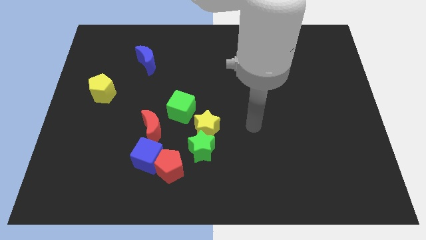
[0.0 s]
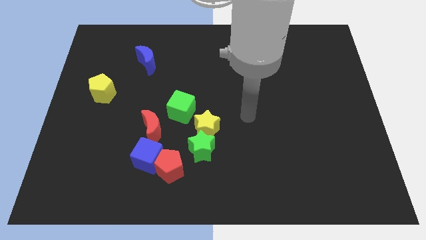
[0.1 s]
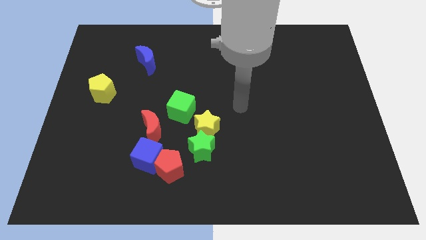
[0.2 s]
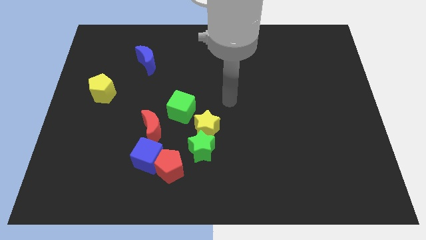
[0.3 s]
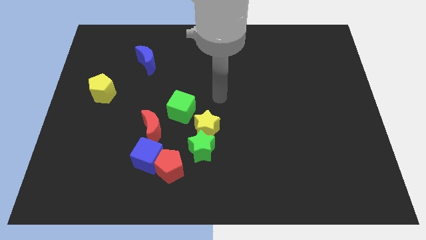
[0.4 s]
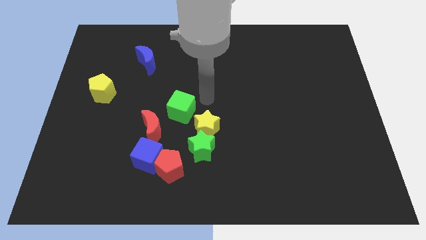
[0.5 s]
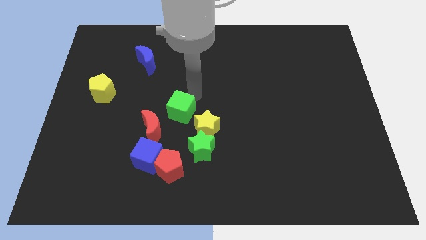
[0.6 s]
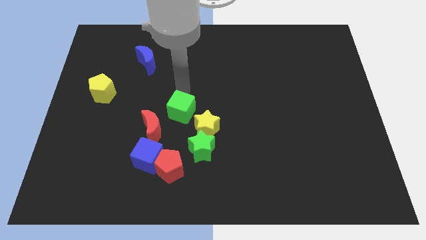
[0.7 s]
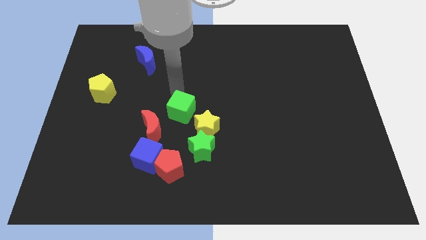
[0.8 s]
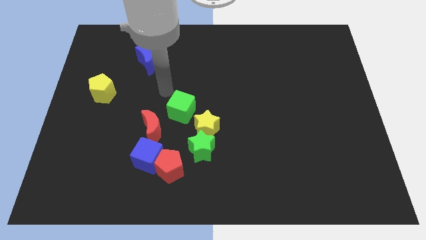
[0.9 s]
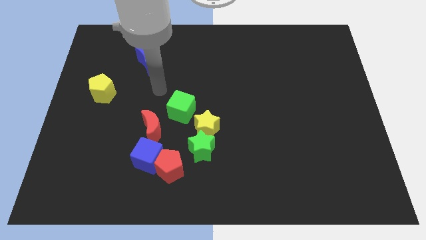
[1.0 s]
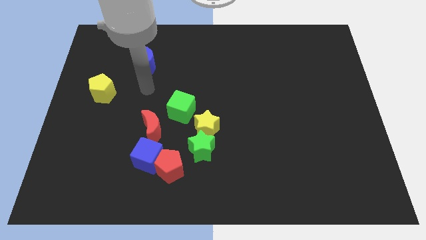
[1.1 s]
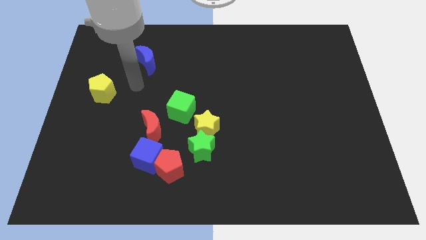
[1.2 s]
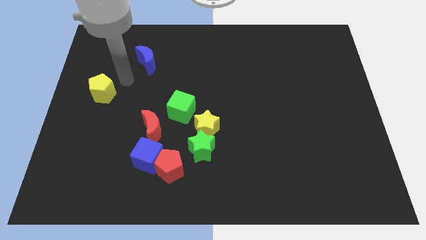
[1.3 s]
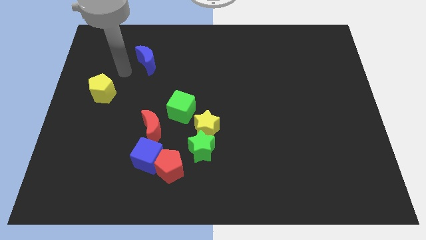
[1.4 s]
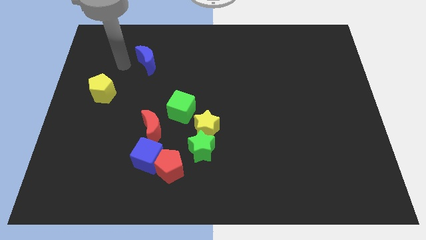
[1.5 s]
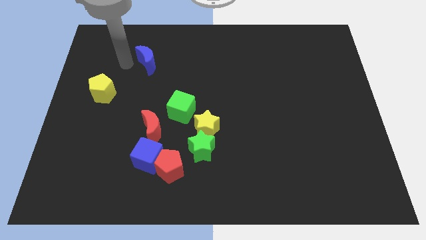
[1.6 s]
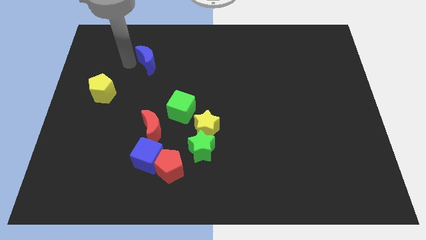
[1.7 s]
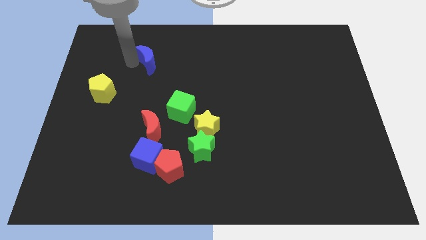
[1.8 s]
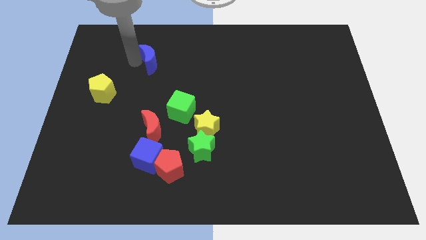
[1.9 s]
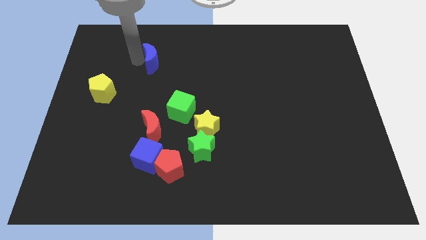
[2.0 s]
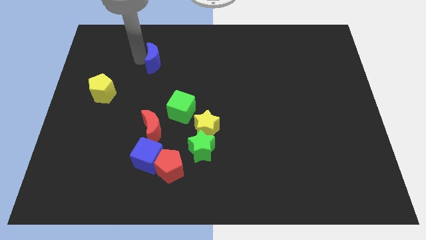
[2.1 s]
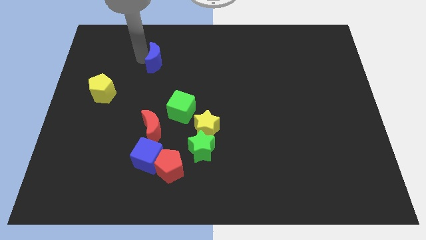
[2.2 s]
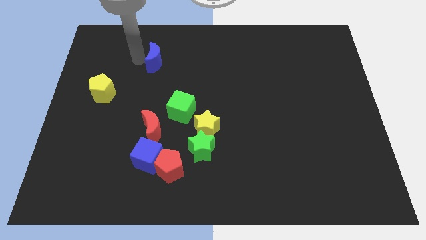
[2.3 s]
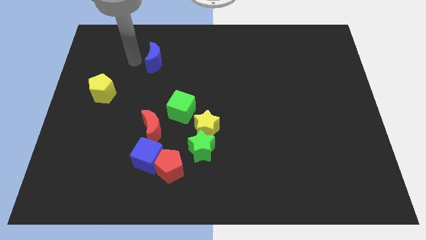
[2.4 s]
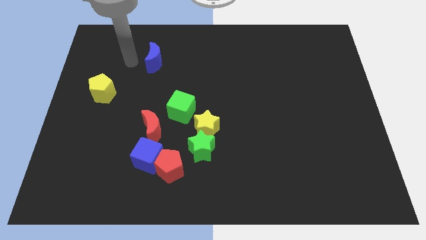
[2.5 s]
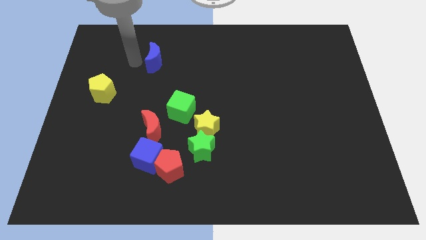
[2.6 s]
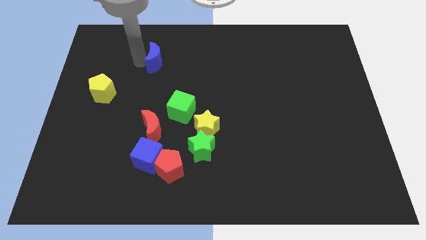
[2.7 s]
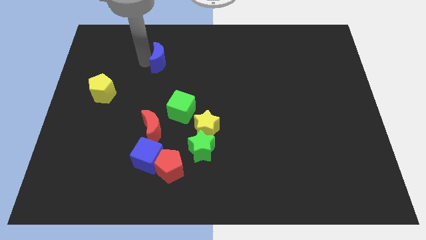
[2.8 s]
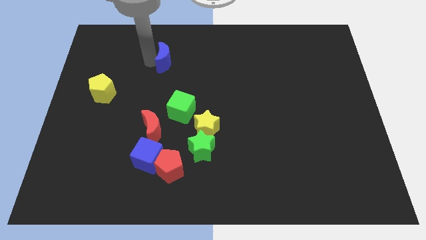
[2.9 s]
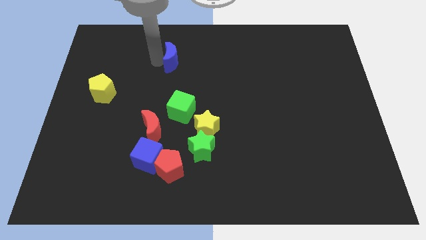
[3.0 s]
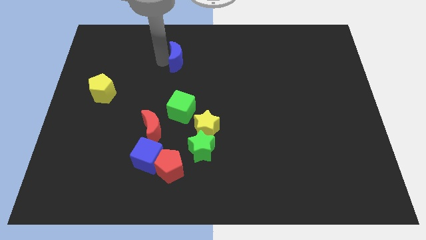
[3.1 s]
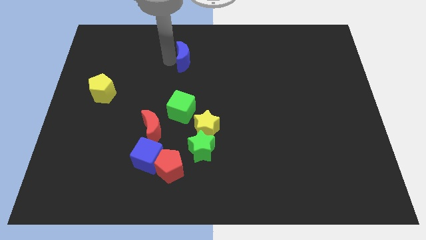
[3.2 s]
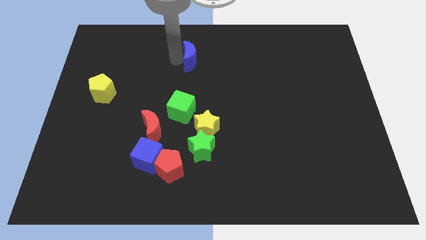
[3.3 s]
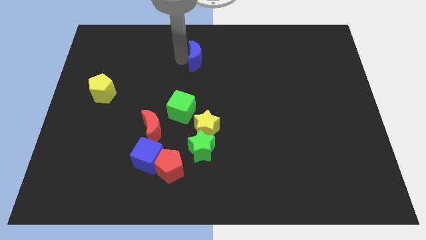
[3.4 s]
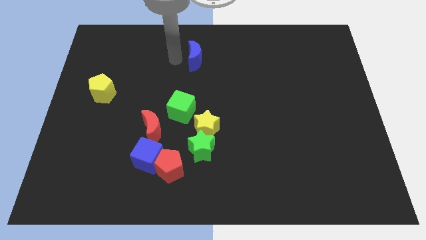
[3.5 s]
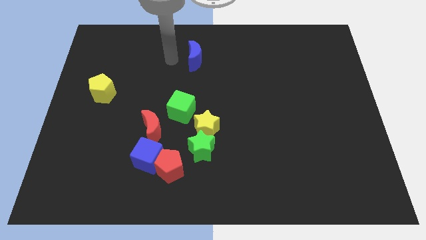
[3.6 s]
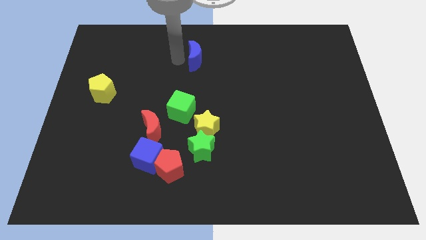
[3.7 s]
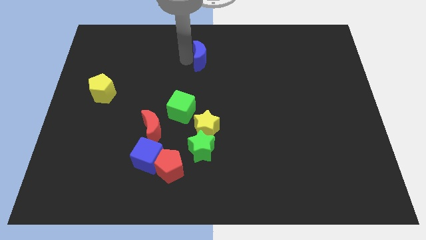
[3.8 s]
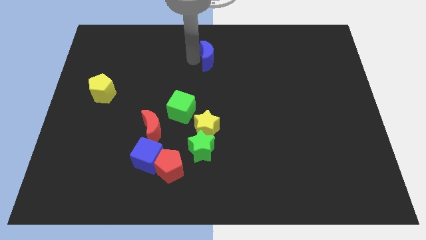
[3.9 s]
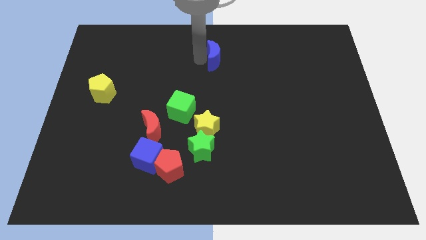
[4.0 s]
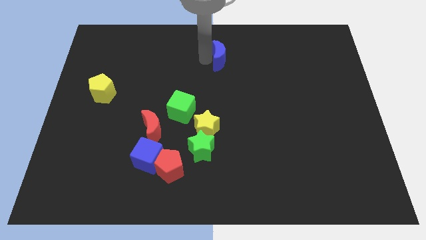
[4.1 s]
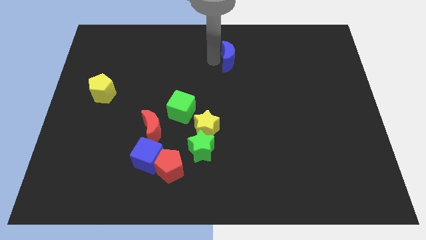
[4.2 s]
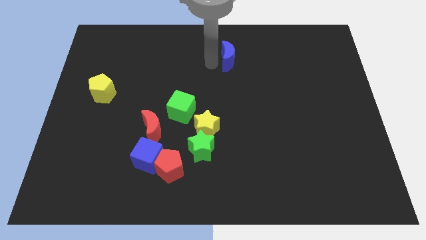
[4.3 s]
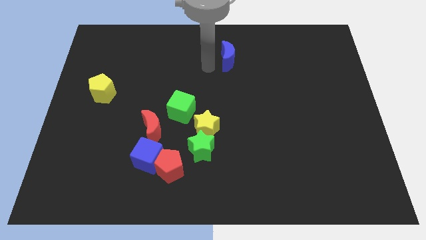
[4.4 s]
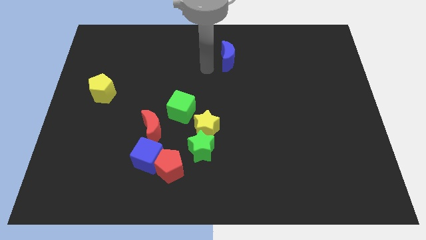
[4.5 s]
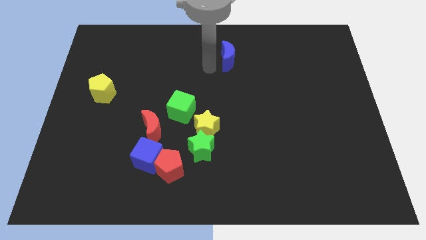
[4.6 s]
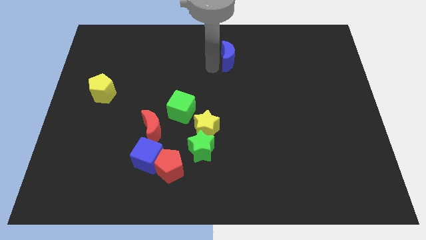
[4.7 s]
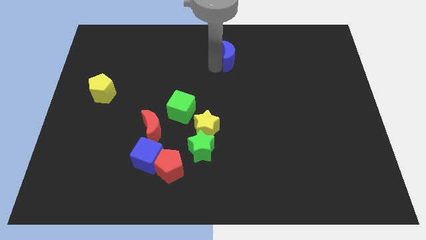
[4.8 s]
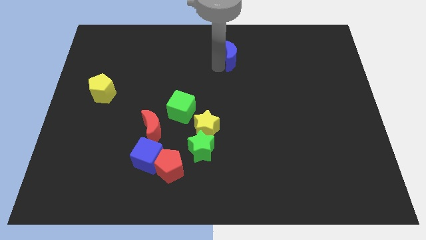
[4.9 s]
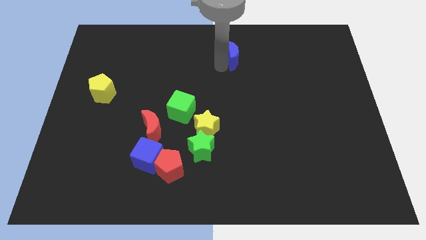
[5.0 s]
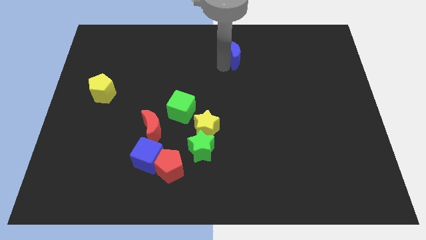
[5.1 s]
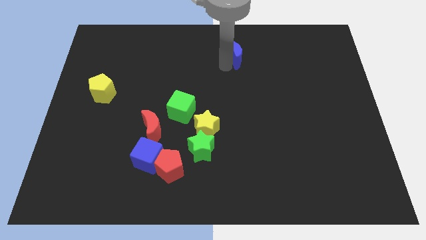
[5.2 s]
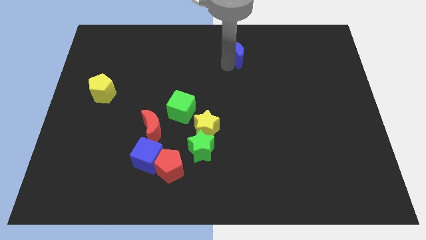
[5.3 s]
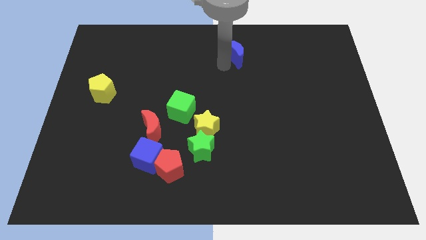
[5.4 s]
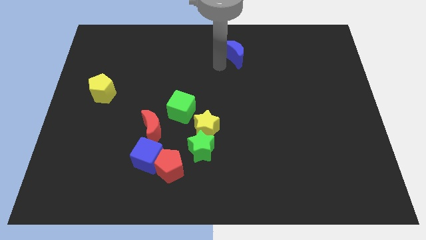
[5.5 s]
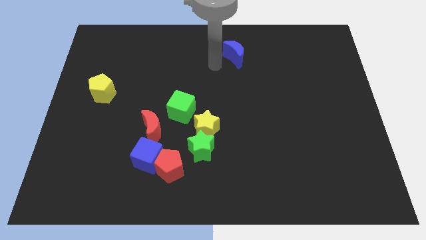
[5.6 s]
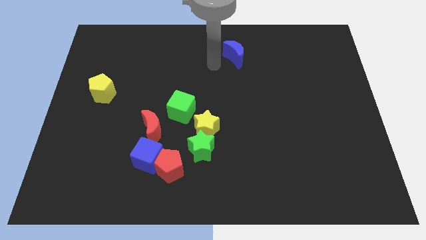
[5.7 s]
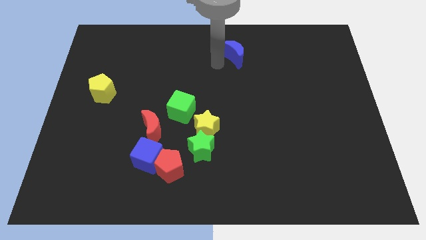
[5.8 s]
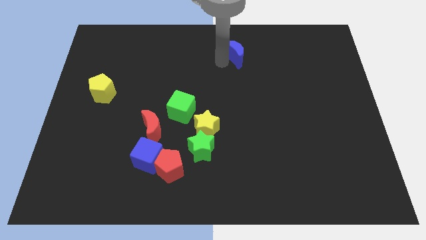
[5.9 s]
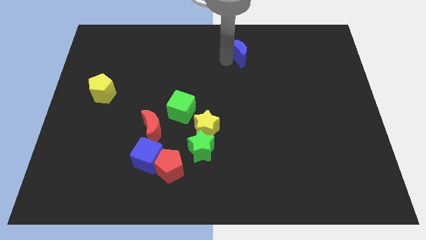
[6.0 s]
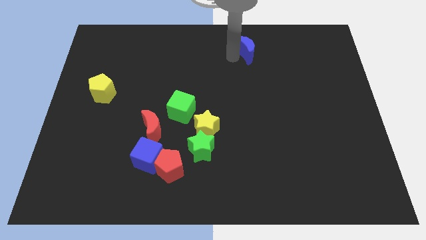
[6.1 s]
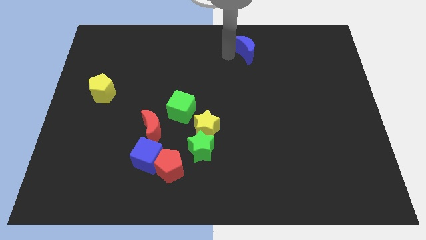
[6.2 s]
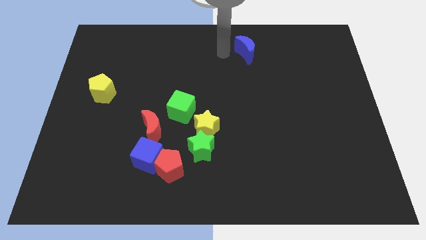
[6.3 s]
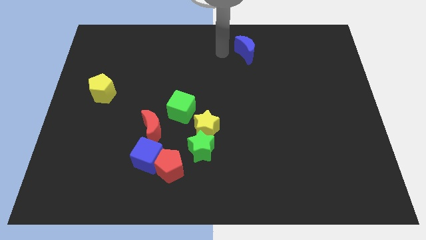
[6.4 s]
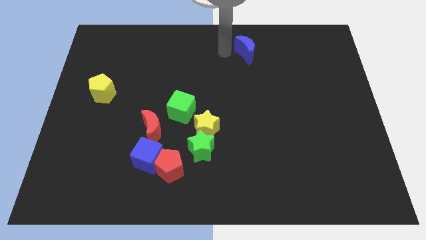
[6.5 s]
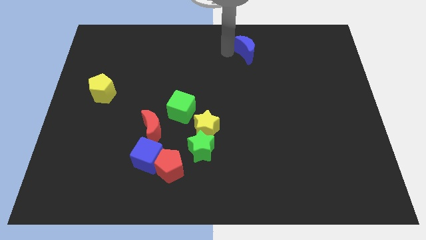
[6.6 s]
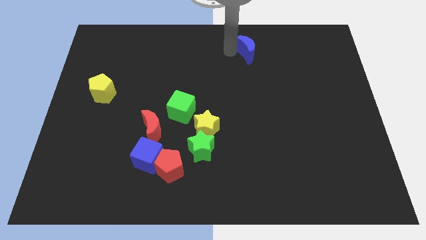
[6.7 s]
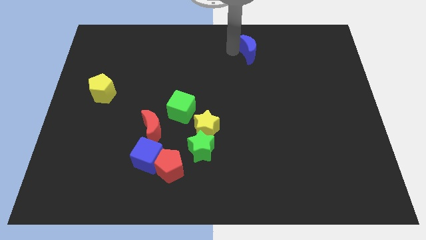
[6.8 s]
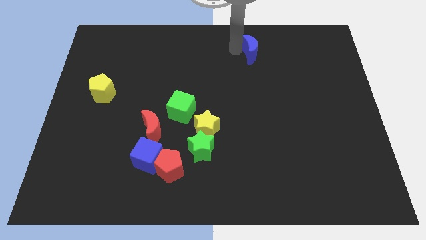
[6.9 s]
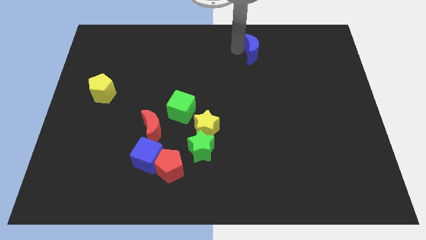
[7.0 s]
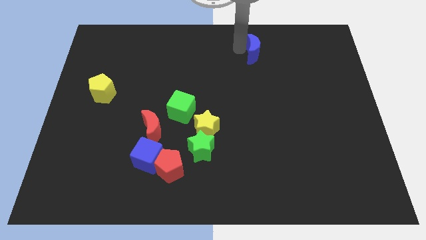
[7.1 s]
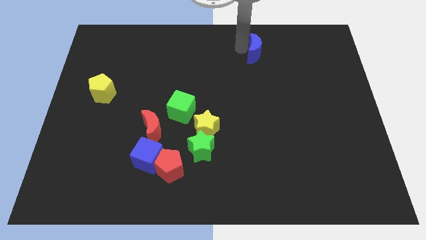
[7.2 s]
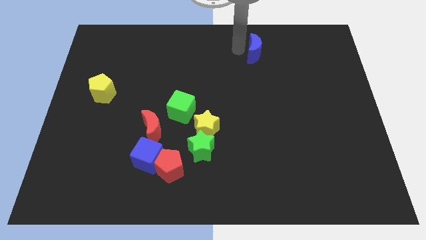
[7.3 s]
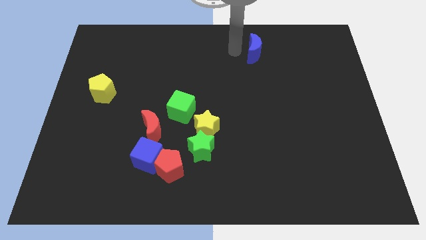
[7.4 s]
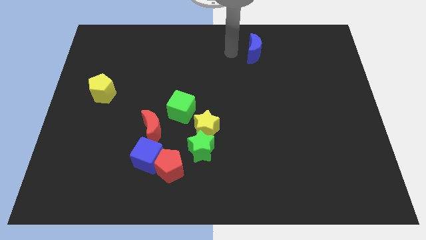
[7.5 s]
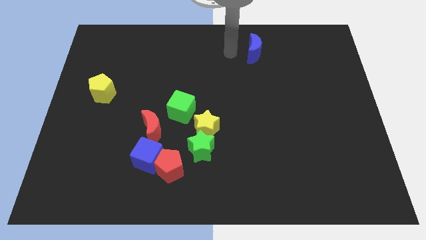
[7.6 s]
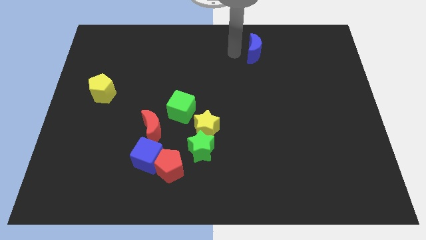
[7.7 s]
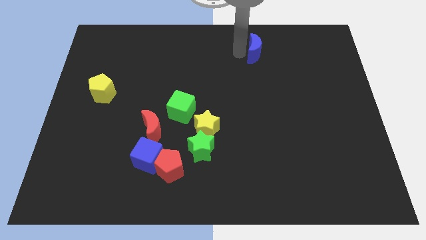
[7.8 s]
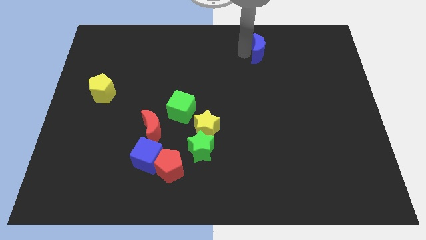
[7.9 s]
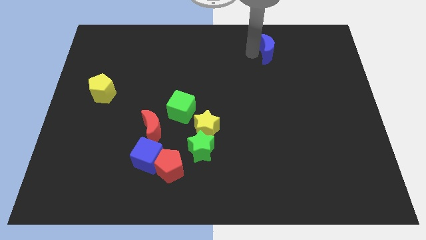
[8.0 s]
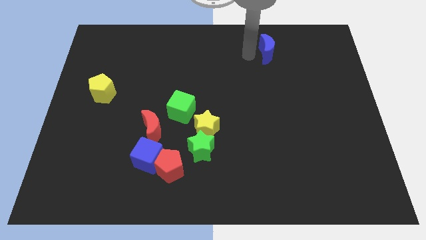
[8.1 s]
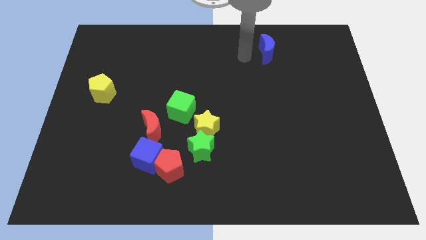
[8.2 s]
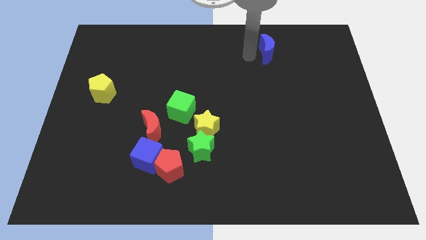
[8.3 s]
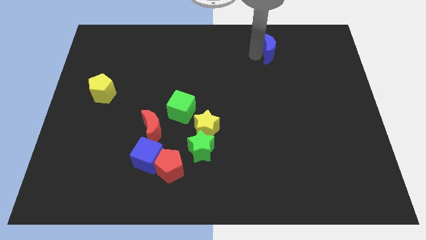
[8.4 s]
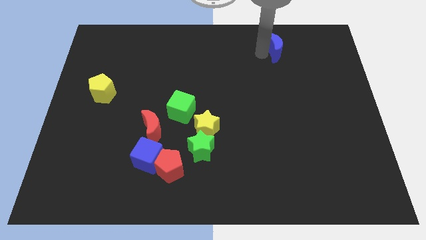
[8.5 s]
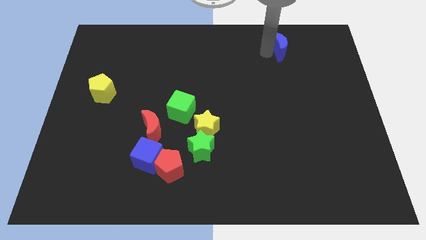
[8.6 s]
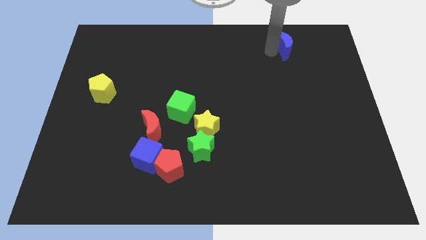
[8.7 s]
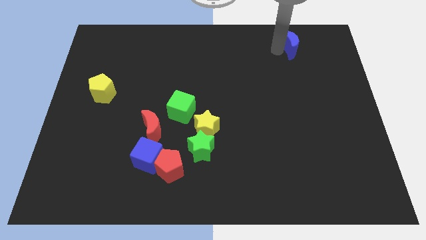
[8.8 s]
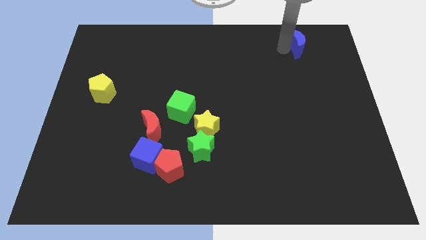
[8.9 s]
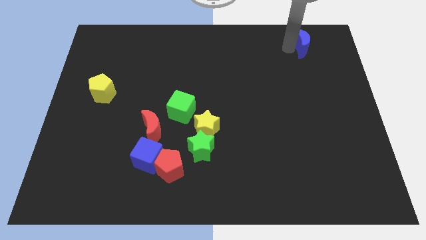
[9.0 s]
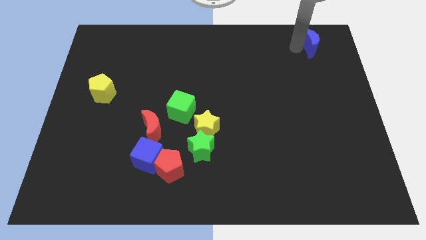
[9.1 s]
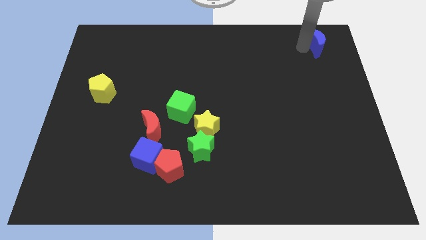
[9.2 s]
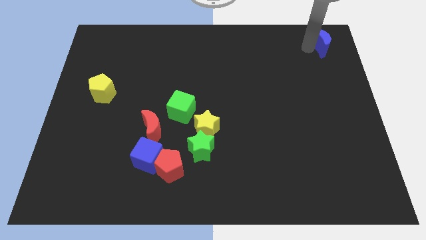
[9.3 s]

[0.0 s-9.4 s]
push the blue moon to the top right of the board
